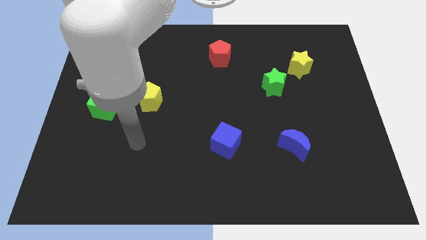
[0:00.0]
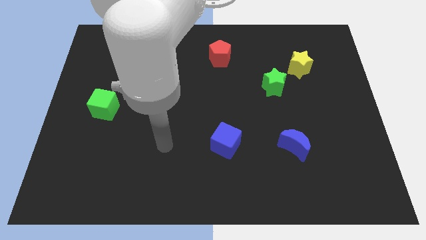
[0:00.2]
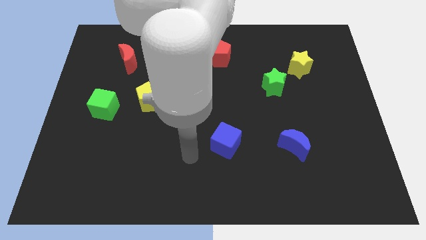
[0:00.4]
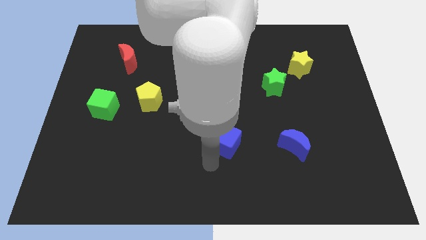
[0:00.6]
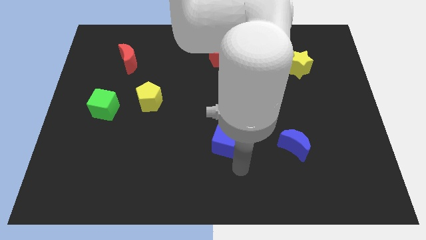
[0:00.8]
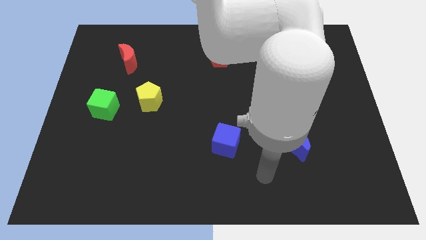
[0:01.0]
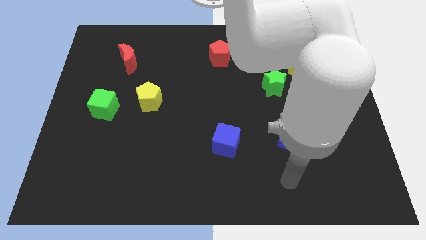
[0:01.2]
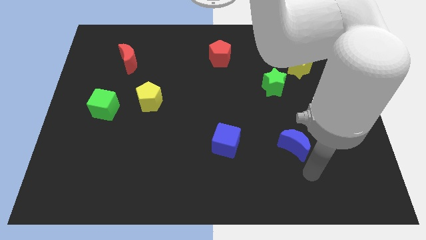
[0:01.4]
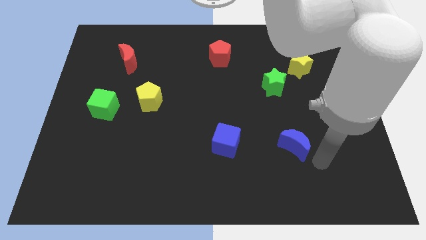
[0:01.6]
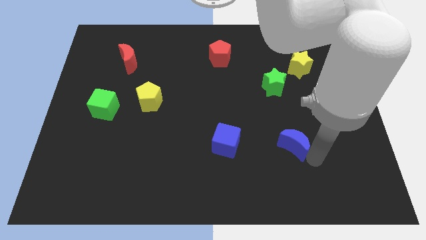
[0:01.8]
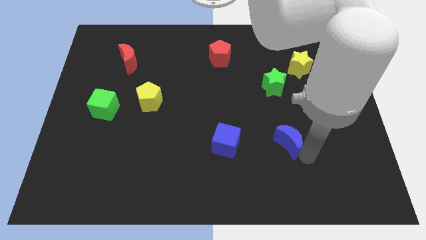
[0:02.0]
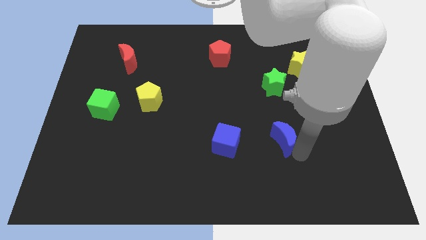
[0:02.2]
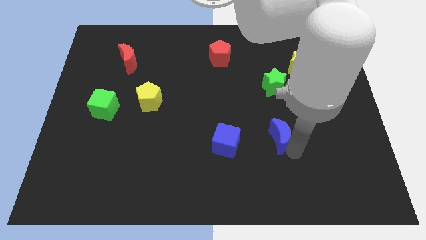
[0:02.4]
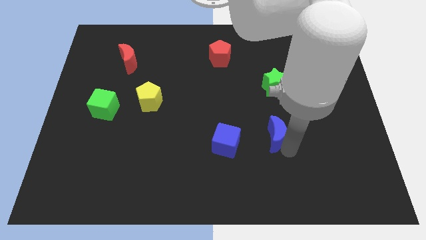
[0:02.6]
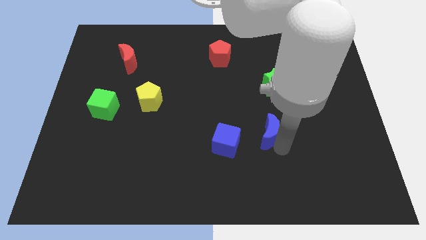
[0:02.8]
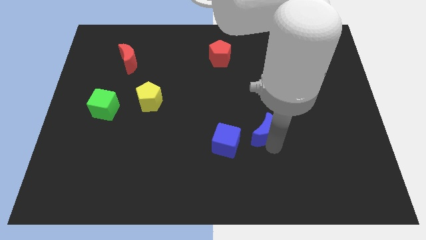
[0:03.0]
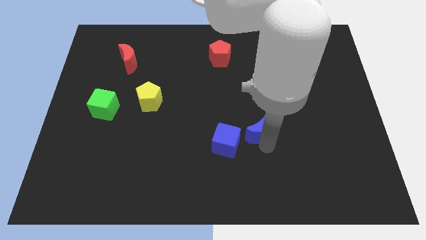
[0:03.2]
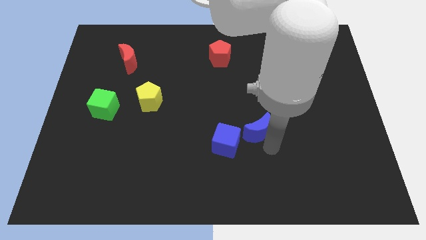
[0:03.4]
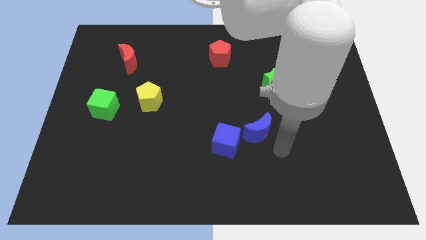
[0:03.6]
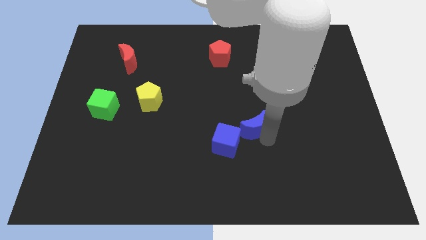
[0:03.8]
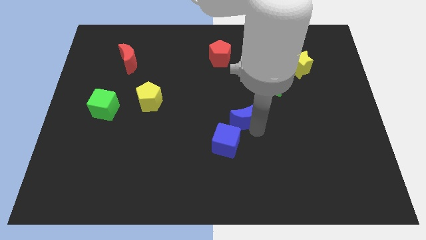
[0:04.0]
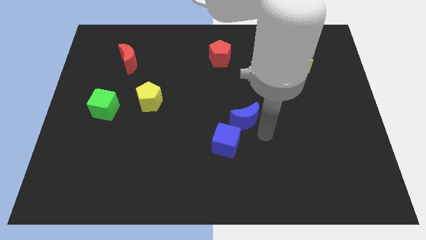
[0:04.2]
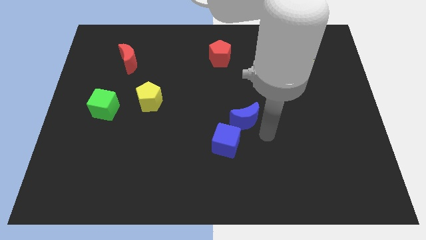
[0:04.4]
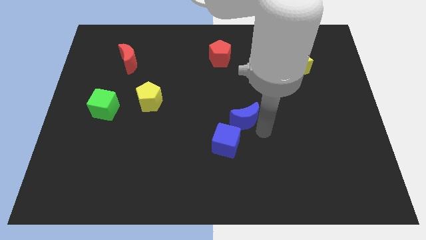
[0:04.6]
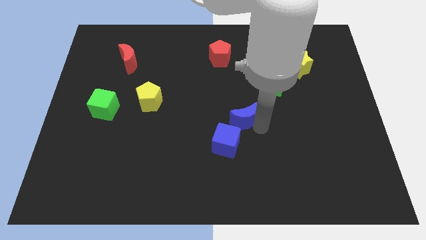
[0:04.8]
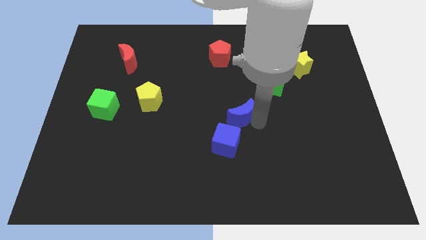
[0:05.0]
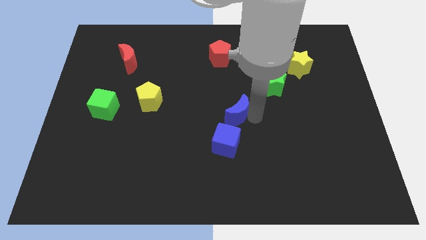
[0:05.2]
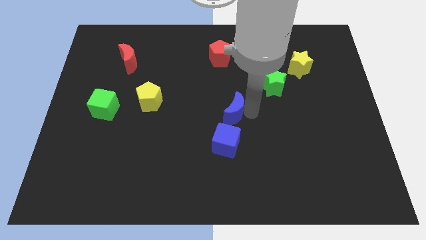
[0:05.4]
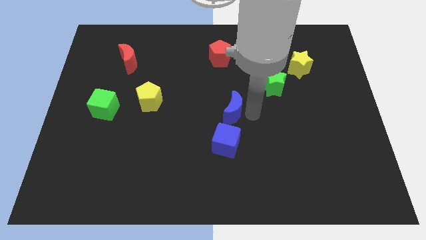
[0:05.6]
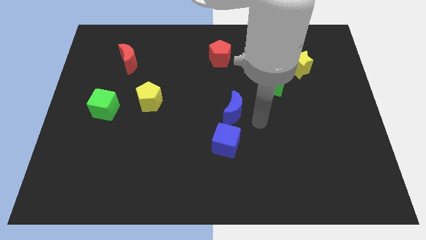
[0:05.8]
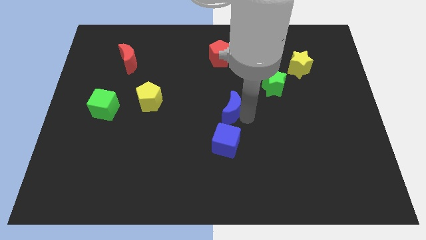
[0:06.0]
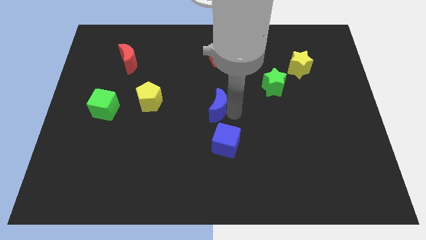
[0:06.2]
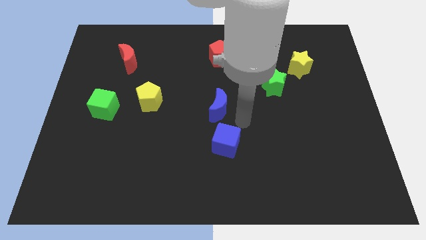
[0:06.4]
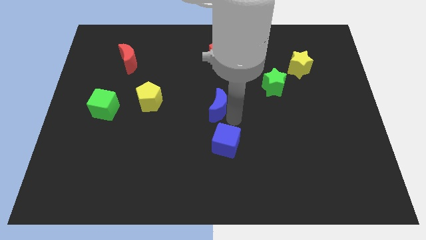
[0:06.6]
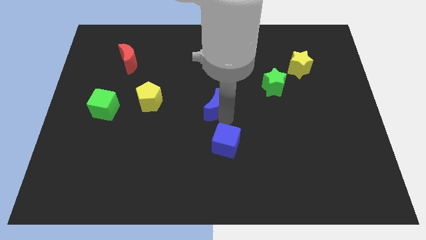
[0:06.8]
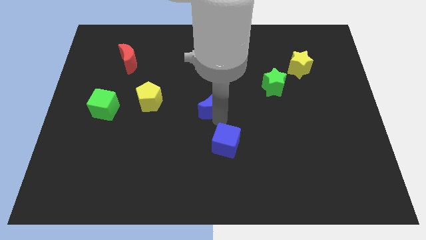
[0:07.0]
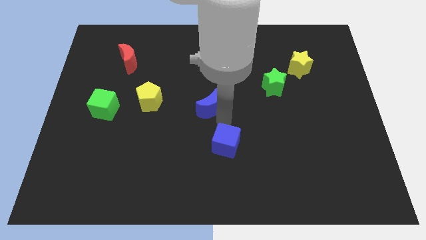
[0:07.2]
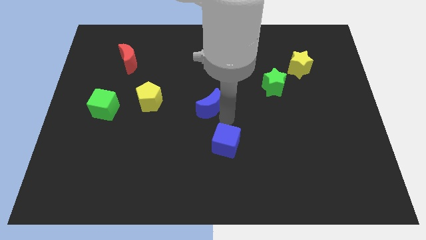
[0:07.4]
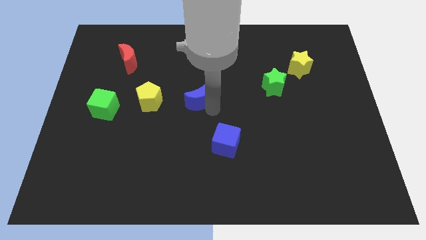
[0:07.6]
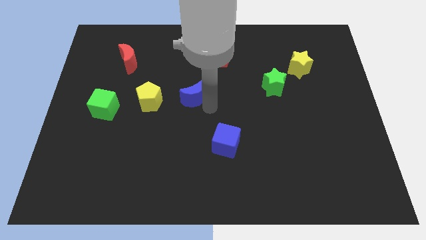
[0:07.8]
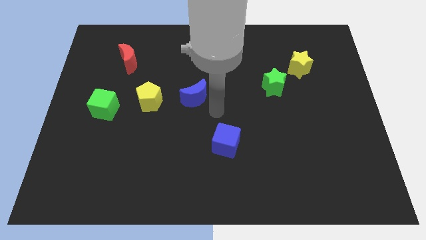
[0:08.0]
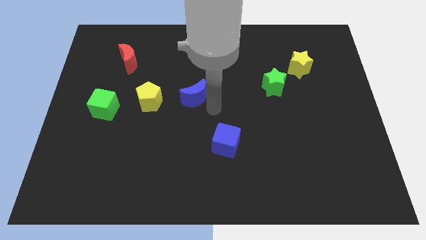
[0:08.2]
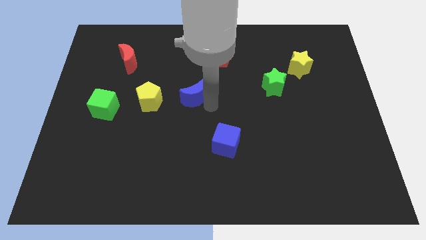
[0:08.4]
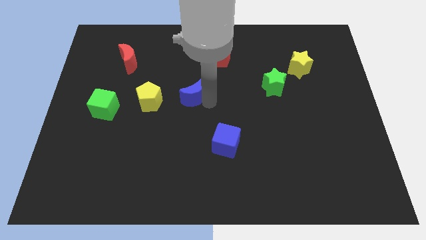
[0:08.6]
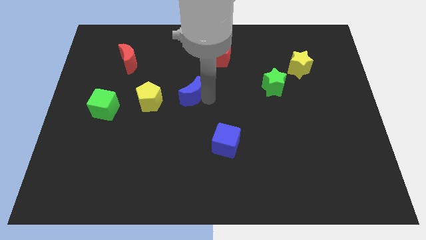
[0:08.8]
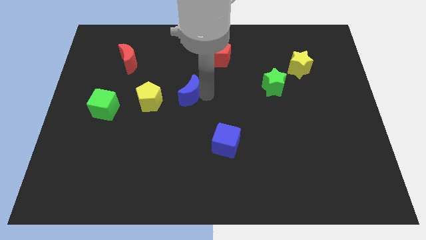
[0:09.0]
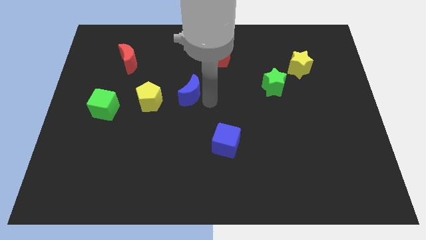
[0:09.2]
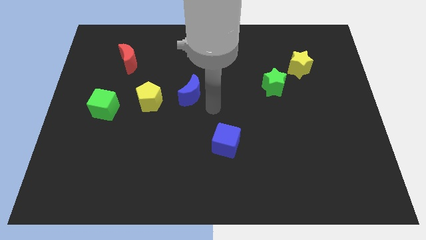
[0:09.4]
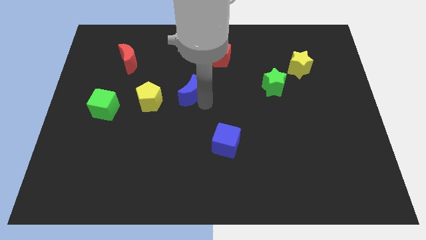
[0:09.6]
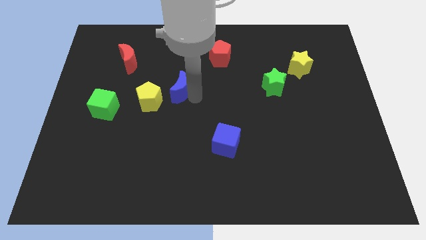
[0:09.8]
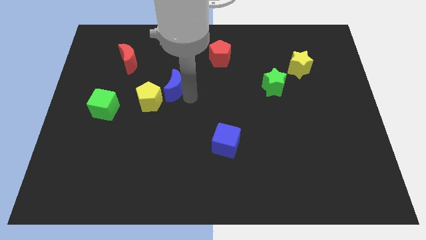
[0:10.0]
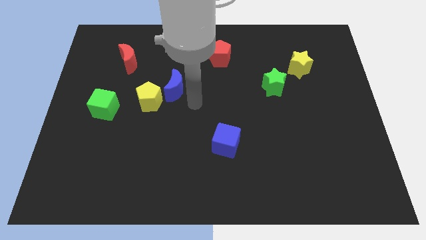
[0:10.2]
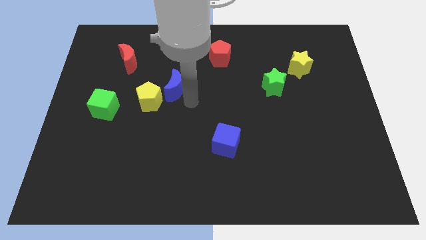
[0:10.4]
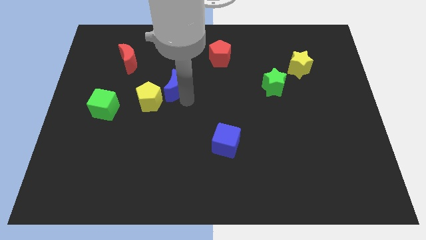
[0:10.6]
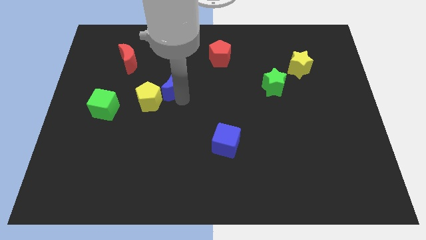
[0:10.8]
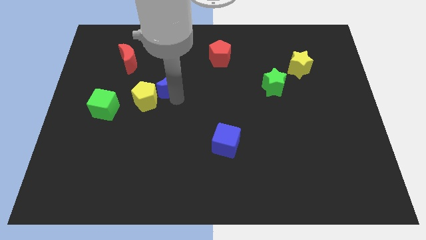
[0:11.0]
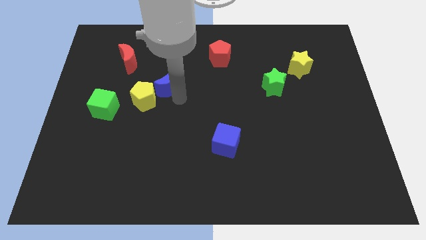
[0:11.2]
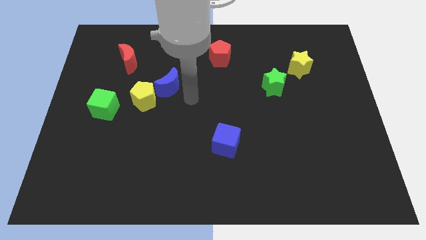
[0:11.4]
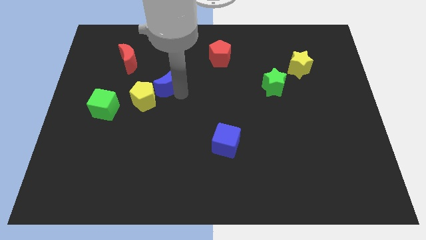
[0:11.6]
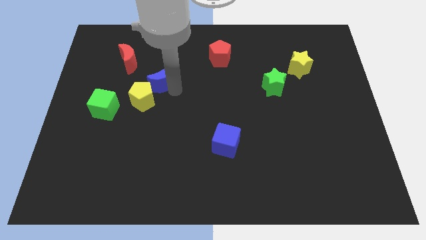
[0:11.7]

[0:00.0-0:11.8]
push the blue moon diagonally down and to the right of the red moon
